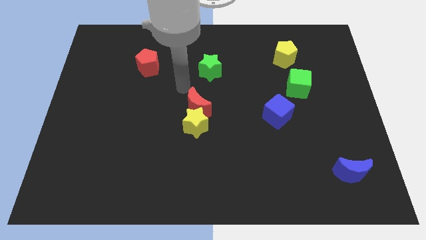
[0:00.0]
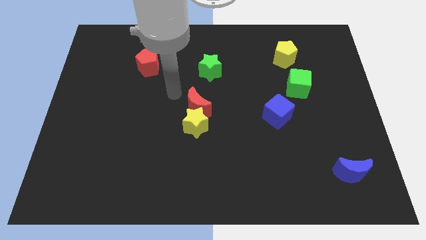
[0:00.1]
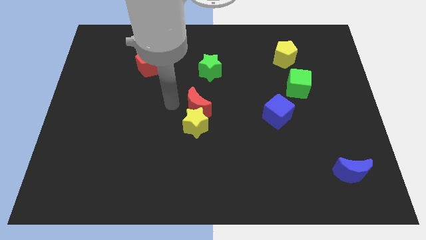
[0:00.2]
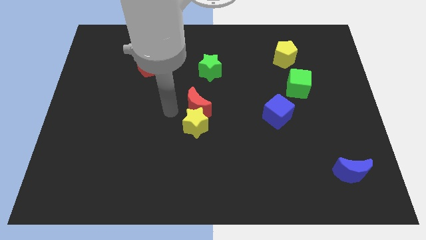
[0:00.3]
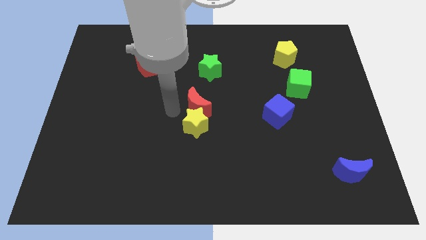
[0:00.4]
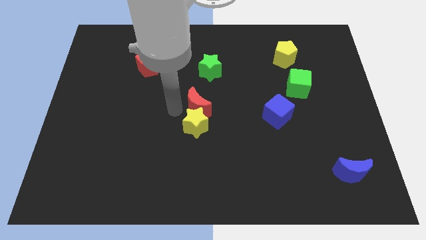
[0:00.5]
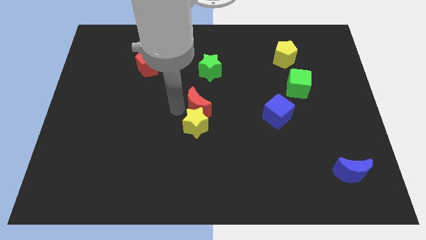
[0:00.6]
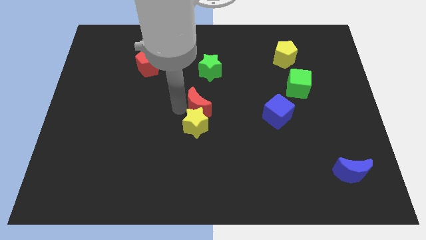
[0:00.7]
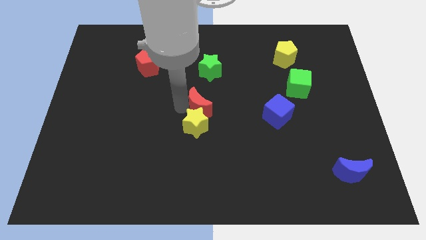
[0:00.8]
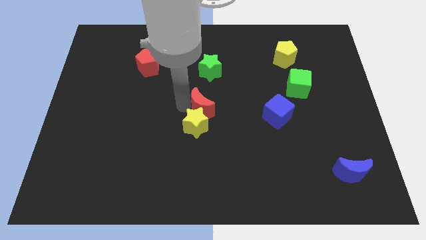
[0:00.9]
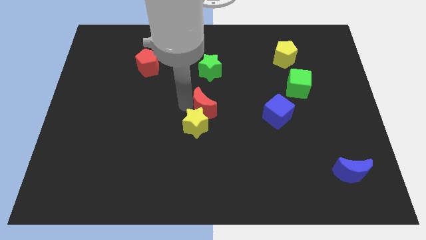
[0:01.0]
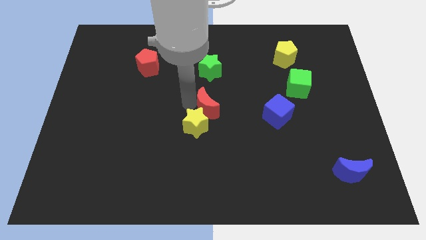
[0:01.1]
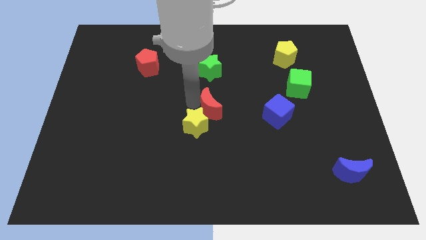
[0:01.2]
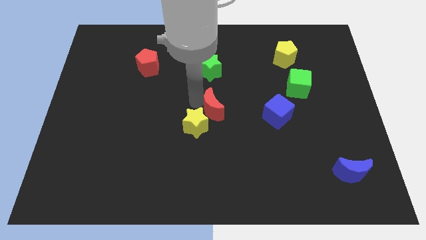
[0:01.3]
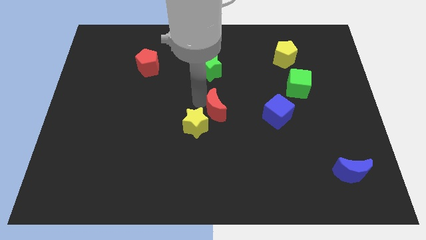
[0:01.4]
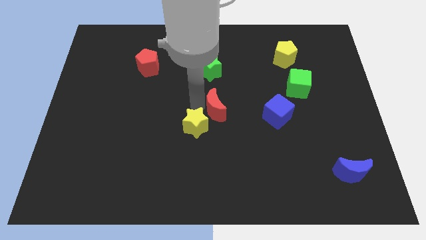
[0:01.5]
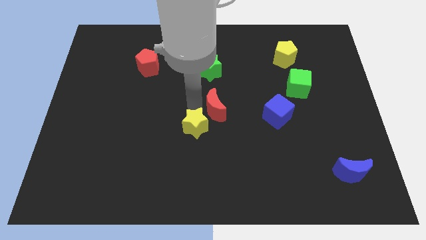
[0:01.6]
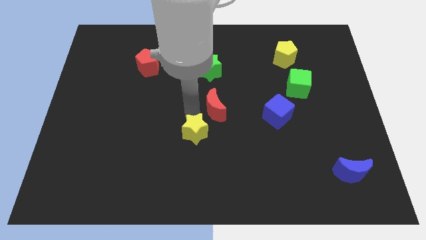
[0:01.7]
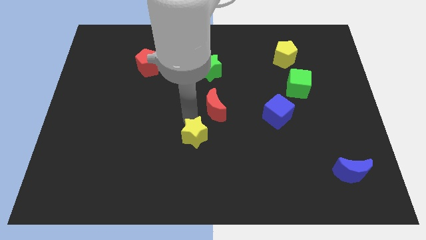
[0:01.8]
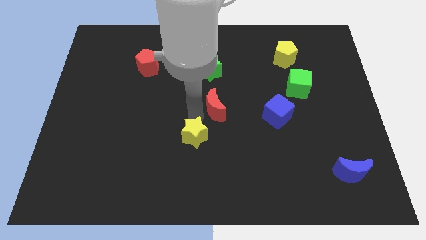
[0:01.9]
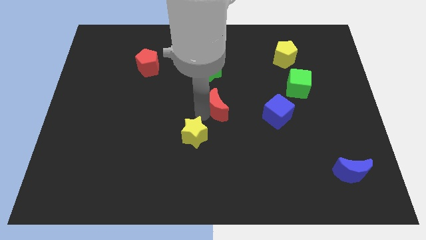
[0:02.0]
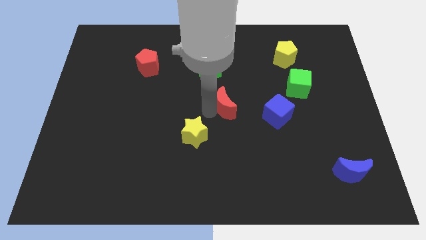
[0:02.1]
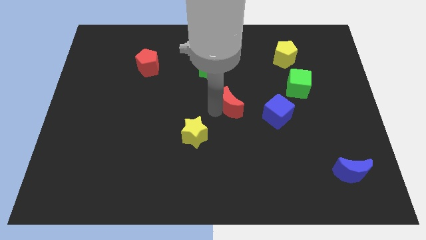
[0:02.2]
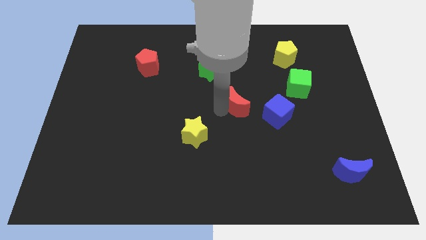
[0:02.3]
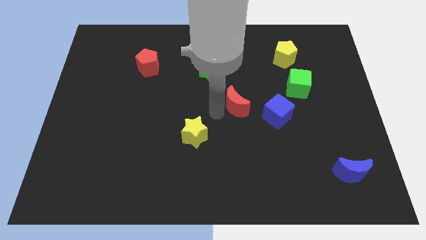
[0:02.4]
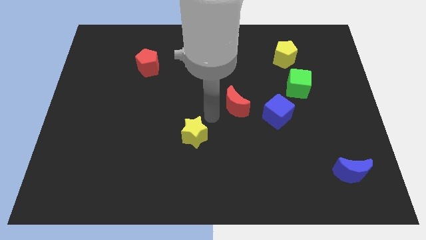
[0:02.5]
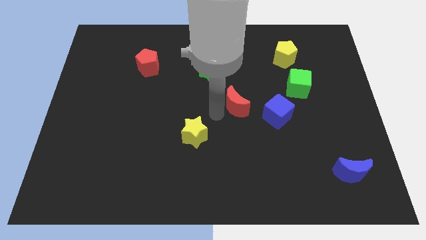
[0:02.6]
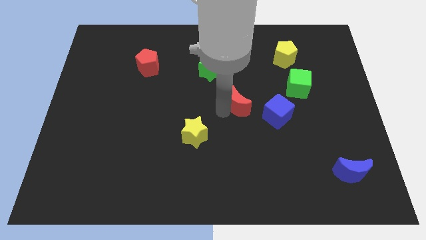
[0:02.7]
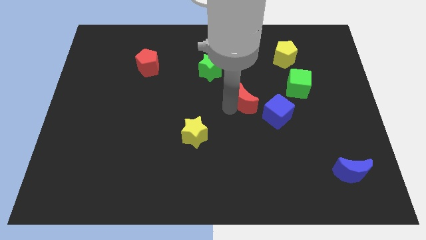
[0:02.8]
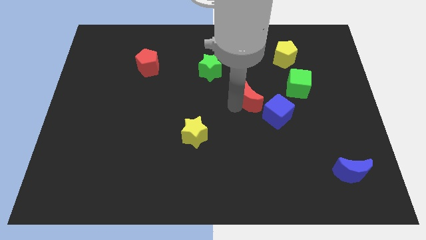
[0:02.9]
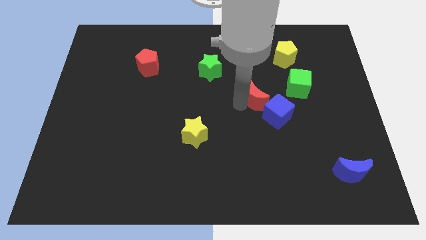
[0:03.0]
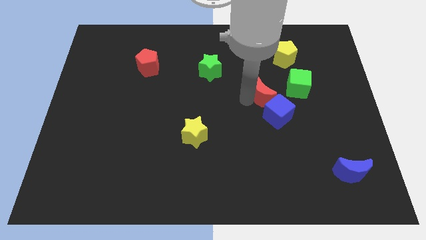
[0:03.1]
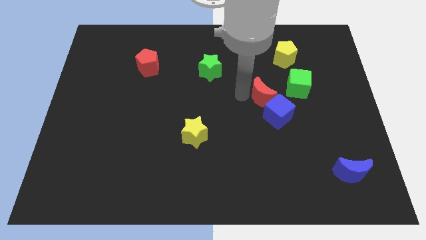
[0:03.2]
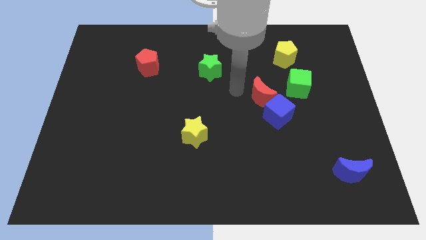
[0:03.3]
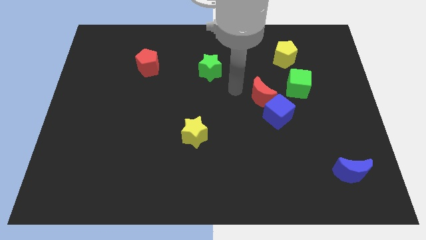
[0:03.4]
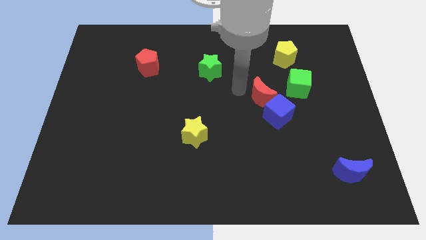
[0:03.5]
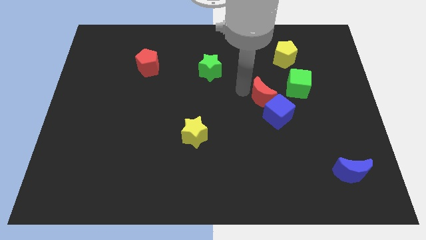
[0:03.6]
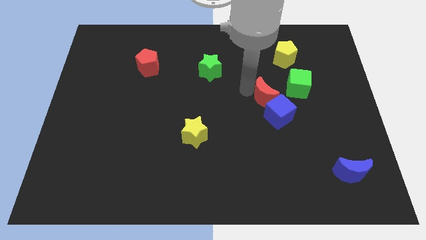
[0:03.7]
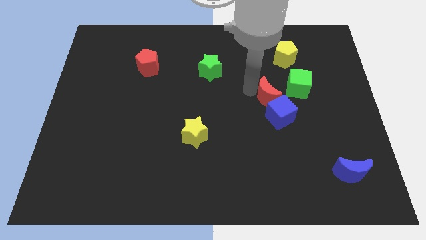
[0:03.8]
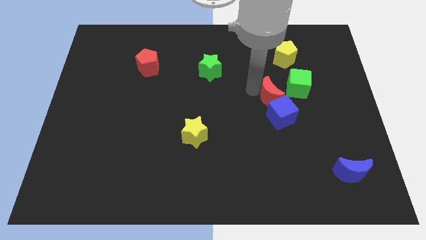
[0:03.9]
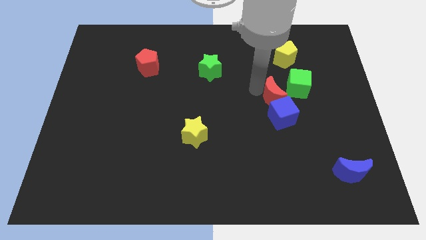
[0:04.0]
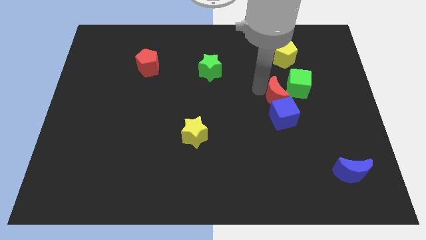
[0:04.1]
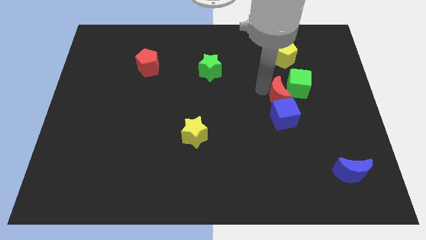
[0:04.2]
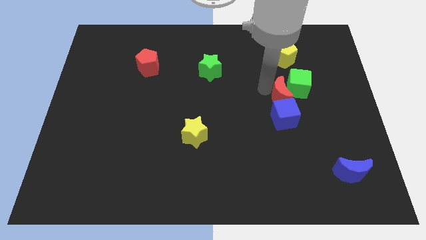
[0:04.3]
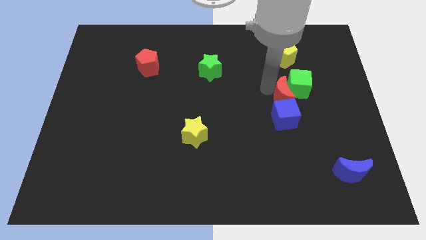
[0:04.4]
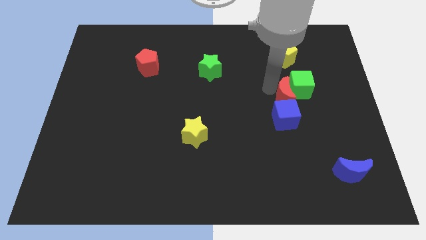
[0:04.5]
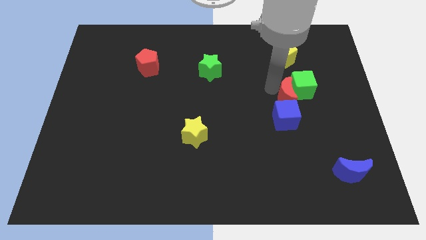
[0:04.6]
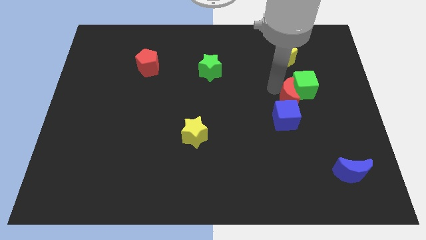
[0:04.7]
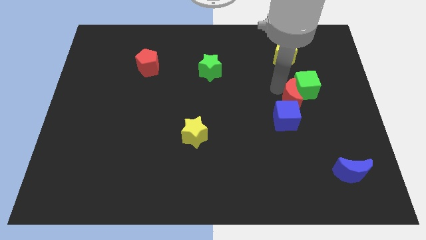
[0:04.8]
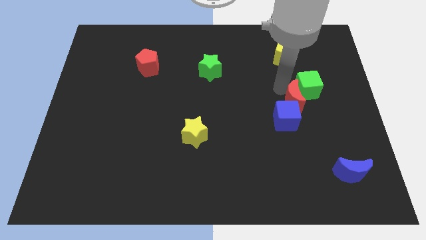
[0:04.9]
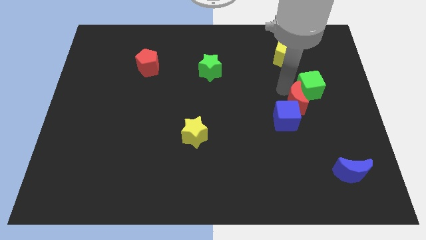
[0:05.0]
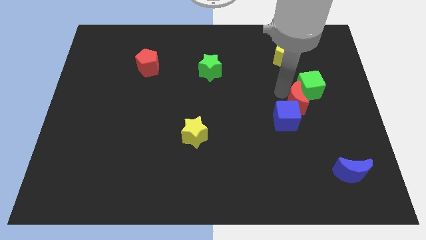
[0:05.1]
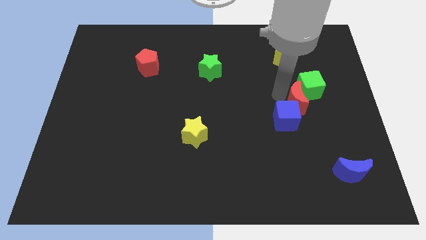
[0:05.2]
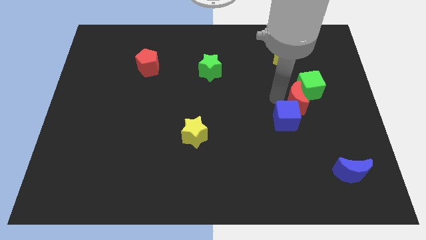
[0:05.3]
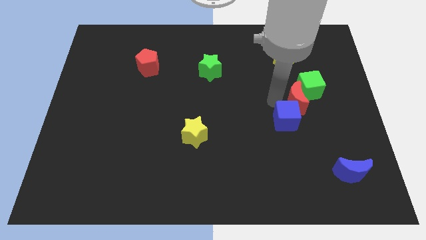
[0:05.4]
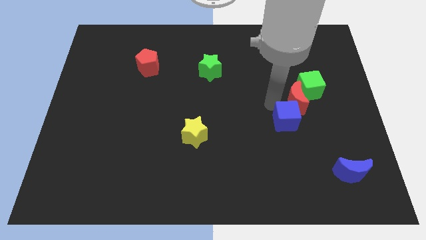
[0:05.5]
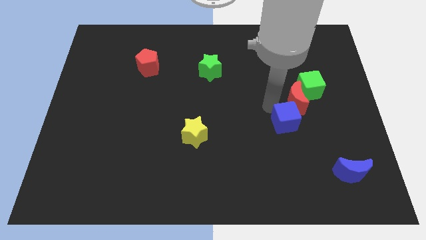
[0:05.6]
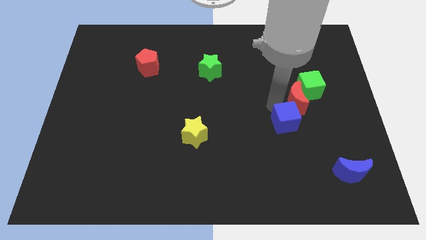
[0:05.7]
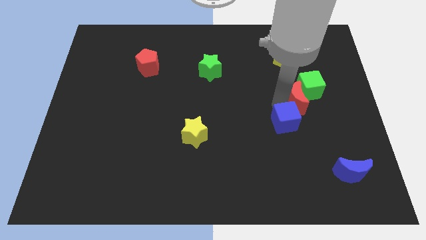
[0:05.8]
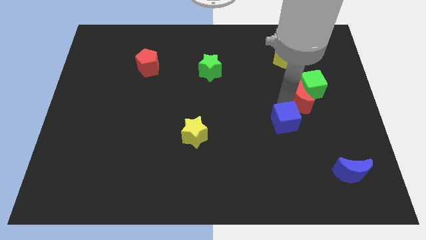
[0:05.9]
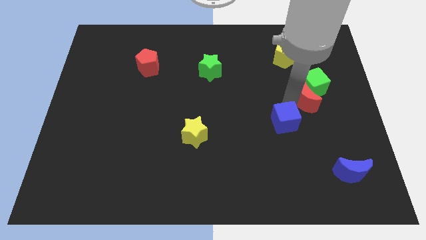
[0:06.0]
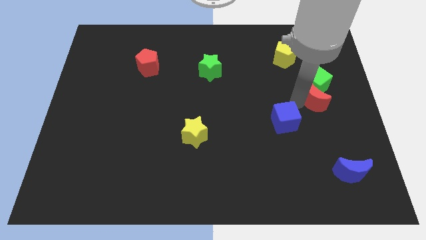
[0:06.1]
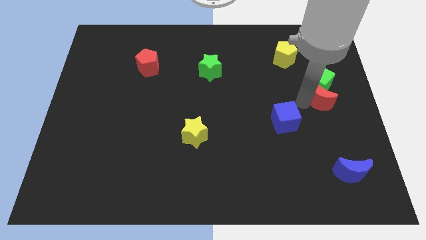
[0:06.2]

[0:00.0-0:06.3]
put the red moon to the right side

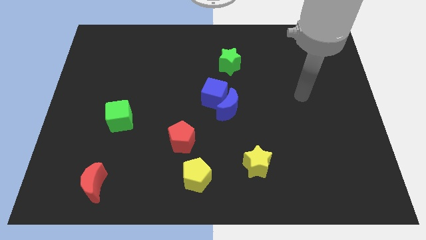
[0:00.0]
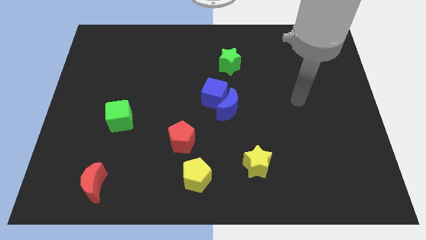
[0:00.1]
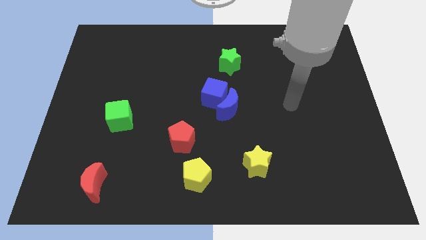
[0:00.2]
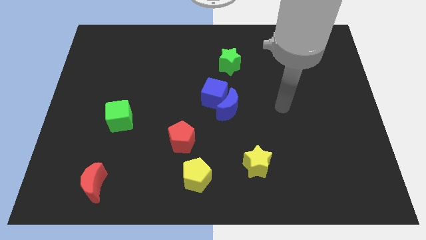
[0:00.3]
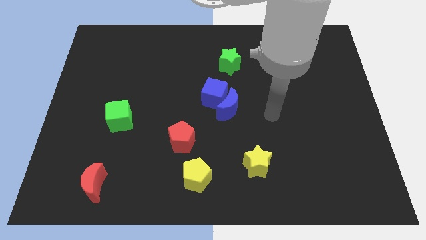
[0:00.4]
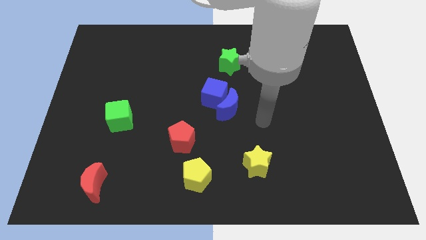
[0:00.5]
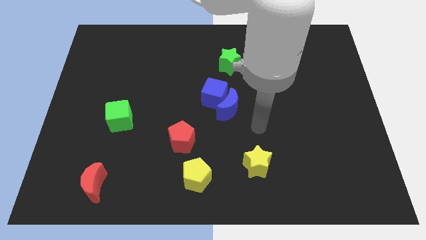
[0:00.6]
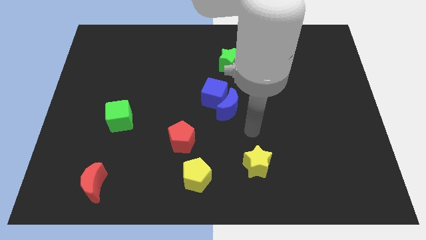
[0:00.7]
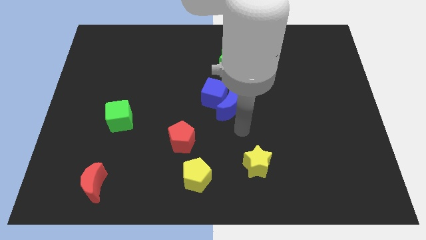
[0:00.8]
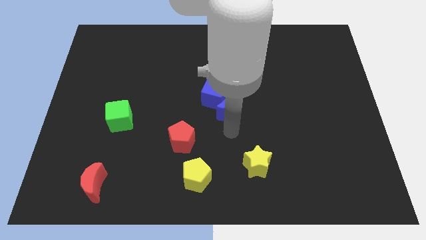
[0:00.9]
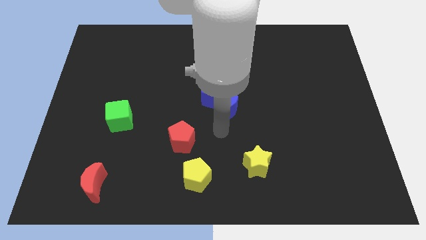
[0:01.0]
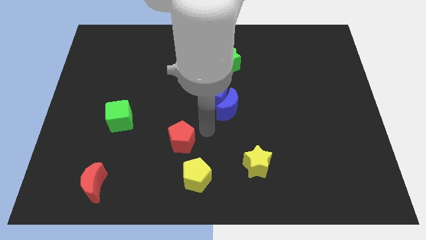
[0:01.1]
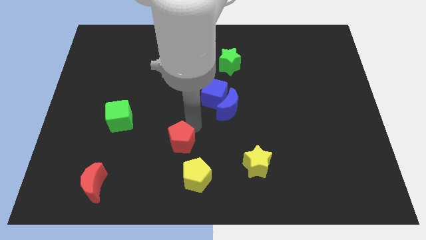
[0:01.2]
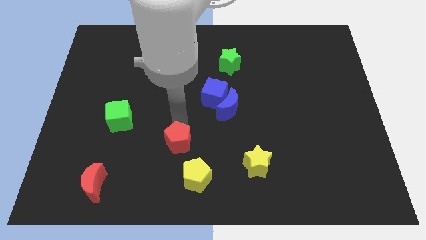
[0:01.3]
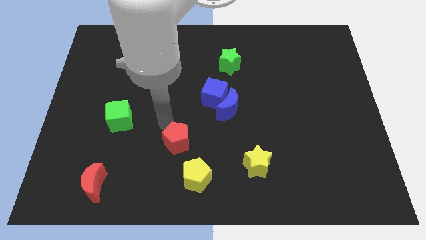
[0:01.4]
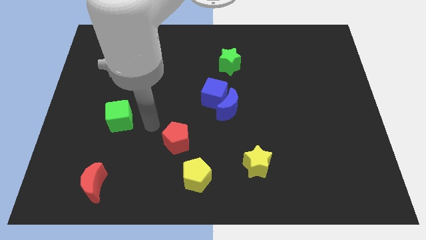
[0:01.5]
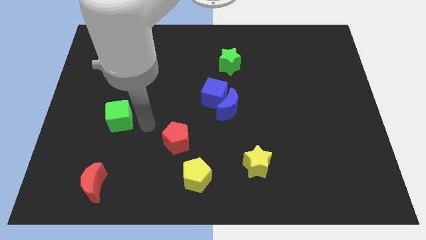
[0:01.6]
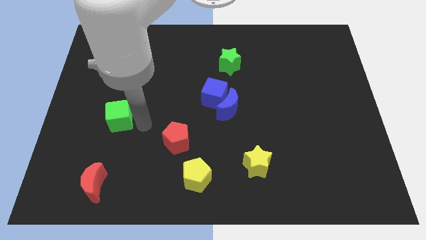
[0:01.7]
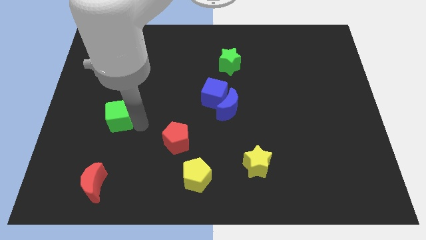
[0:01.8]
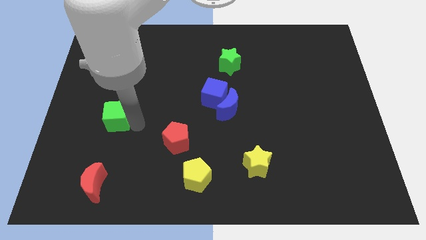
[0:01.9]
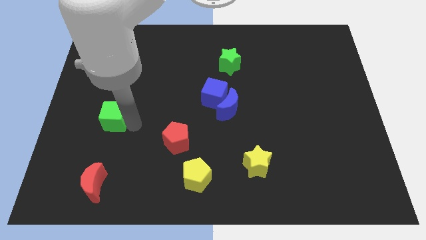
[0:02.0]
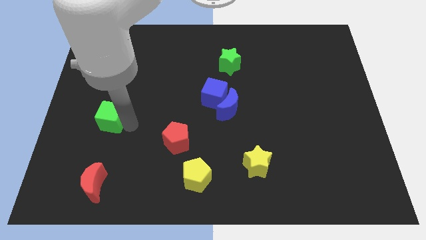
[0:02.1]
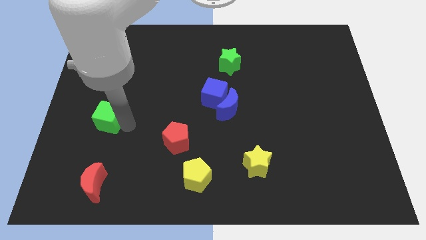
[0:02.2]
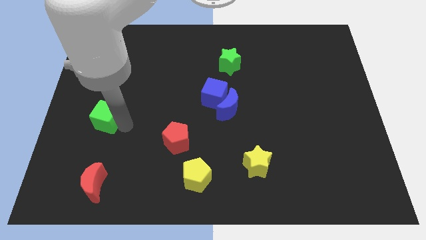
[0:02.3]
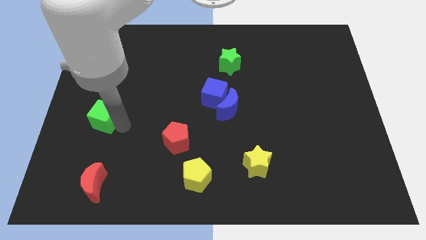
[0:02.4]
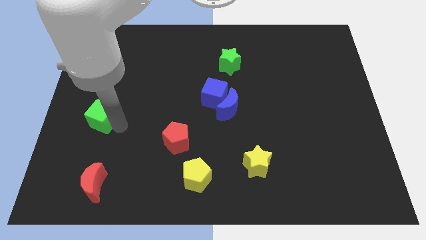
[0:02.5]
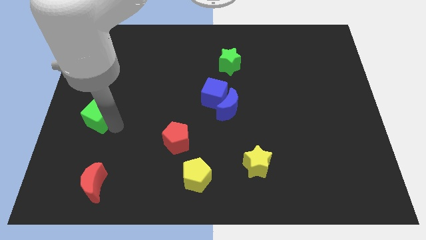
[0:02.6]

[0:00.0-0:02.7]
slide the green cube to the center left
